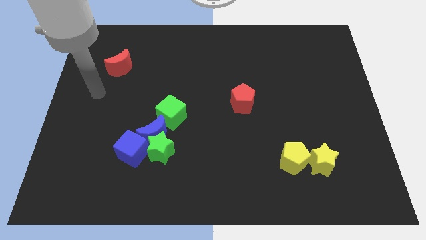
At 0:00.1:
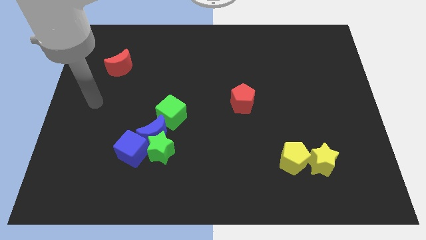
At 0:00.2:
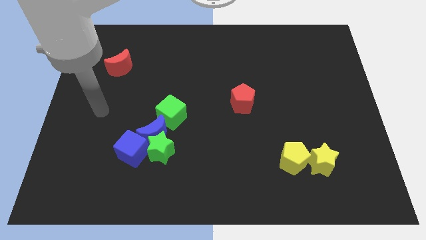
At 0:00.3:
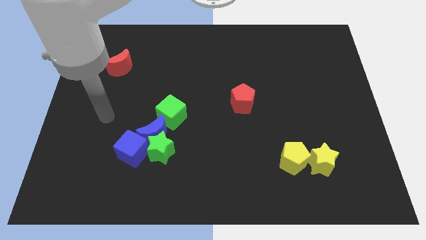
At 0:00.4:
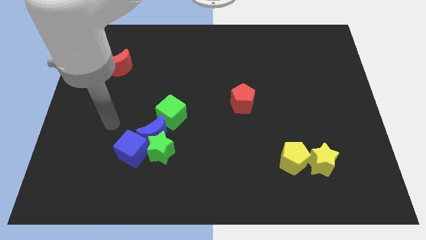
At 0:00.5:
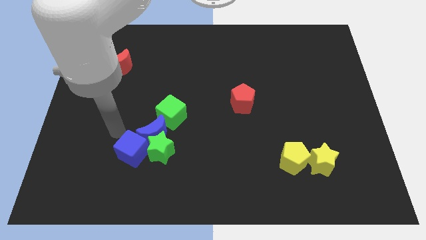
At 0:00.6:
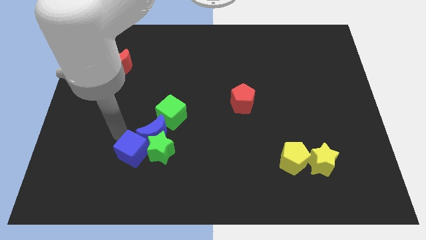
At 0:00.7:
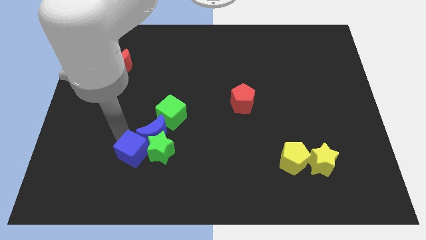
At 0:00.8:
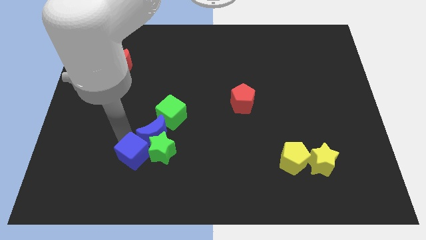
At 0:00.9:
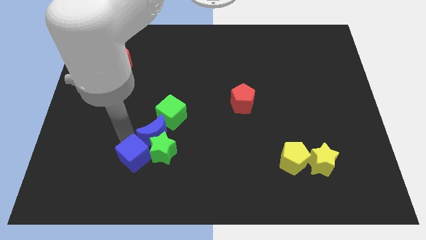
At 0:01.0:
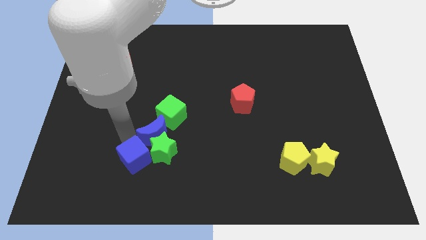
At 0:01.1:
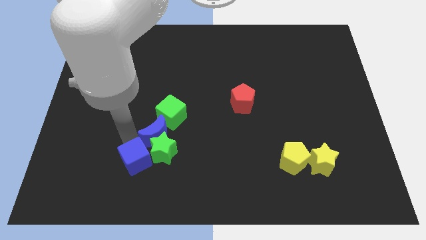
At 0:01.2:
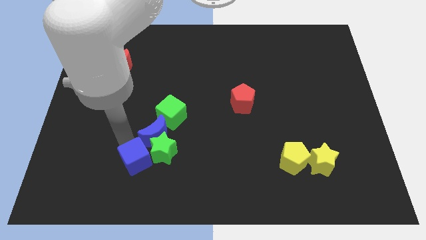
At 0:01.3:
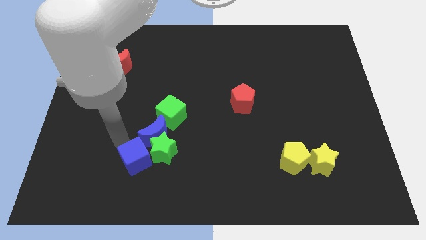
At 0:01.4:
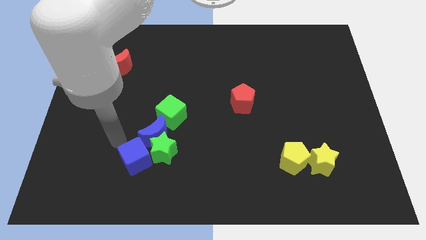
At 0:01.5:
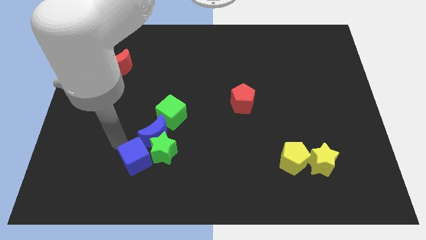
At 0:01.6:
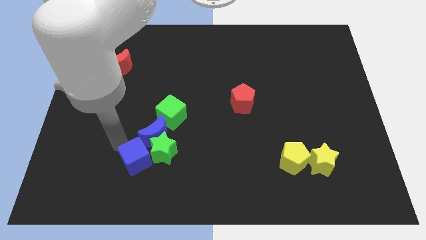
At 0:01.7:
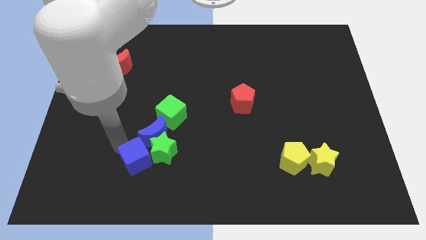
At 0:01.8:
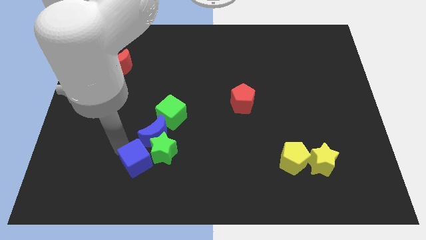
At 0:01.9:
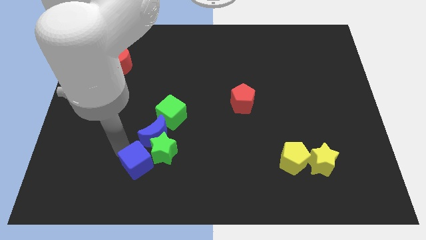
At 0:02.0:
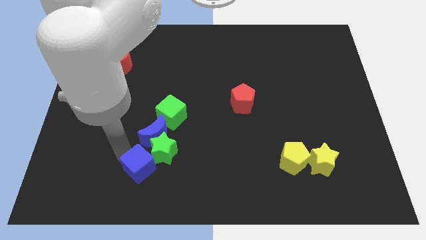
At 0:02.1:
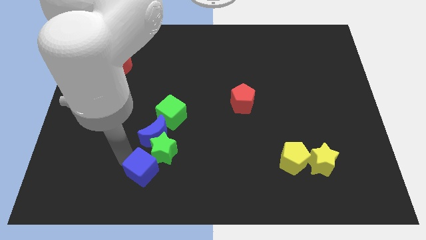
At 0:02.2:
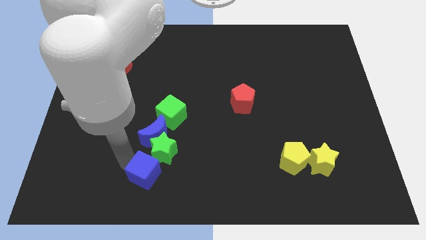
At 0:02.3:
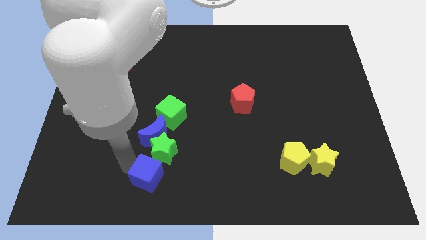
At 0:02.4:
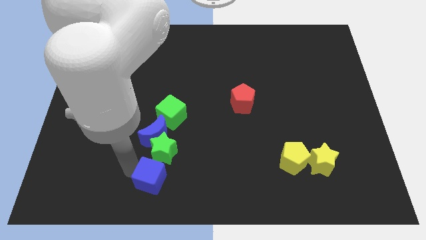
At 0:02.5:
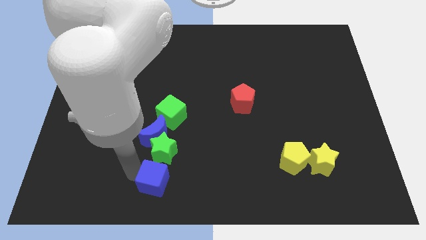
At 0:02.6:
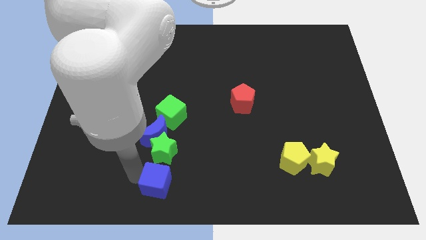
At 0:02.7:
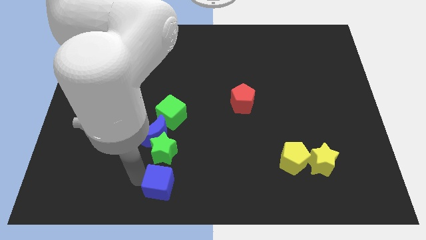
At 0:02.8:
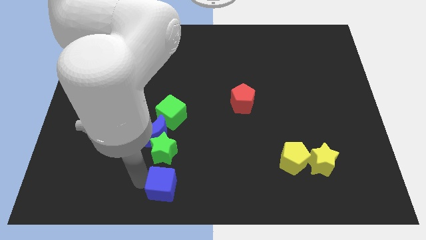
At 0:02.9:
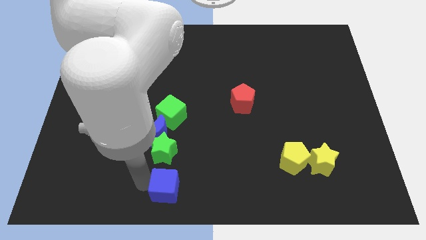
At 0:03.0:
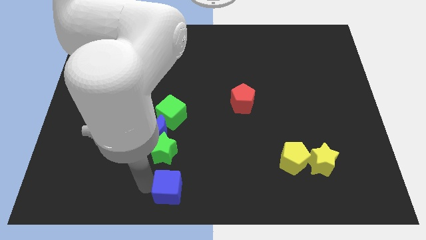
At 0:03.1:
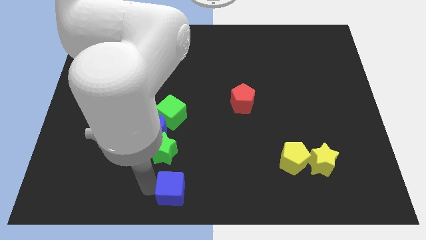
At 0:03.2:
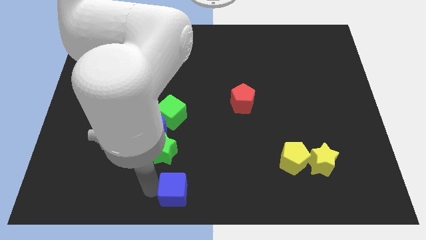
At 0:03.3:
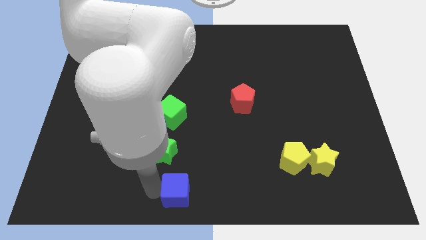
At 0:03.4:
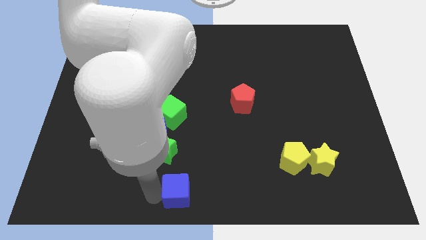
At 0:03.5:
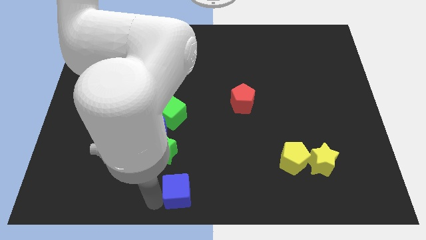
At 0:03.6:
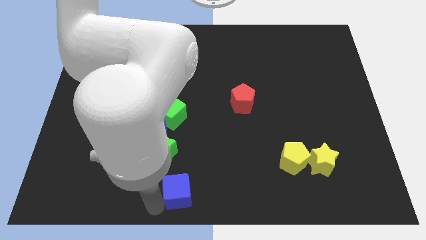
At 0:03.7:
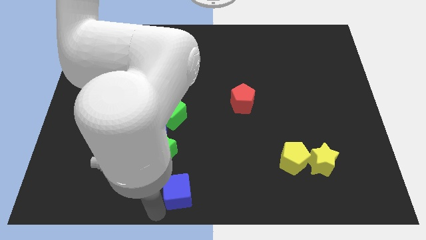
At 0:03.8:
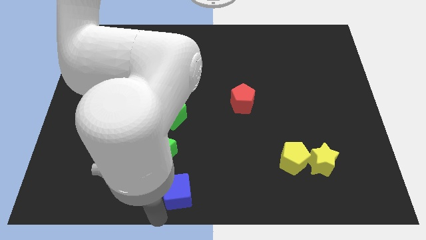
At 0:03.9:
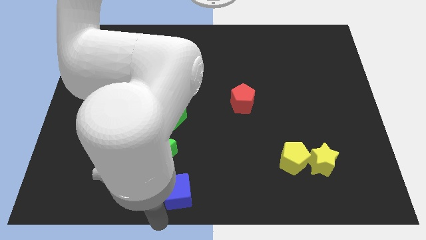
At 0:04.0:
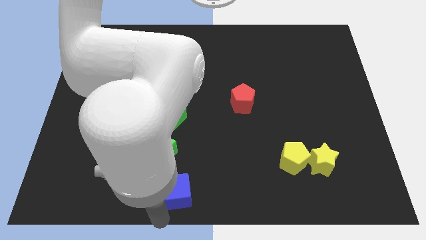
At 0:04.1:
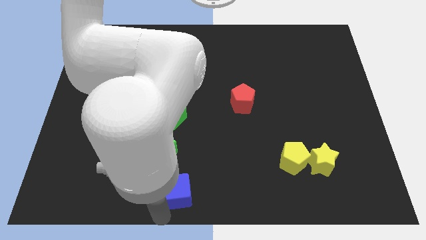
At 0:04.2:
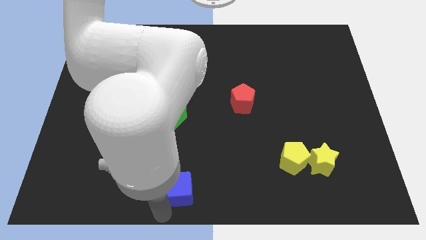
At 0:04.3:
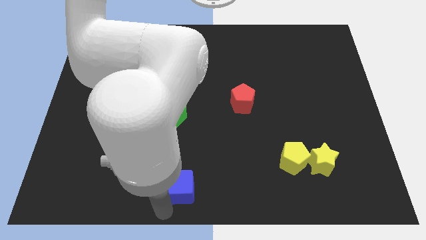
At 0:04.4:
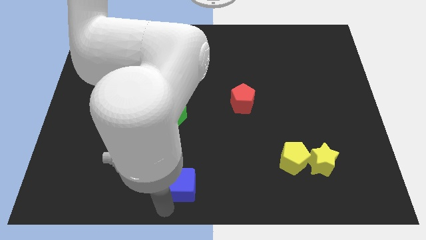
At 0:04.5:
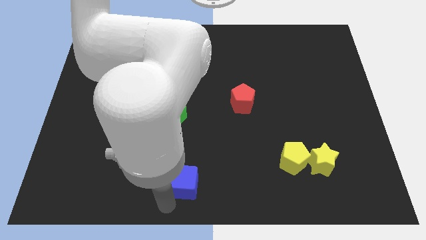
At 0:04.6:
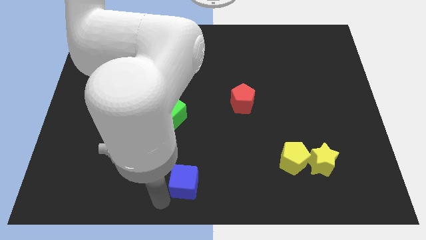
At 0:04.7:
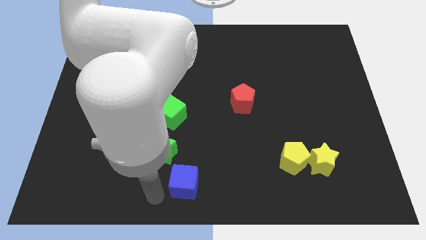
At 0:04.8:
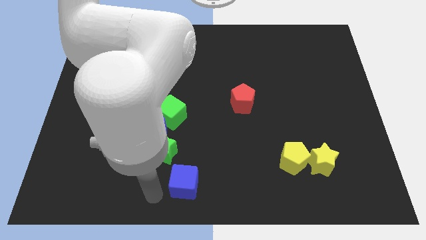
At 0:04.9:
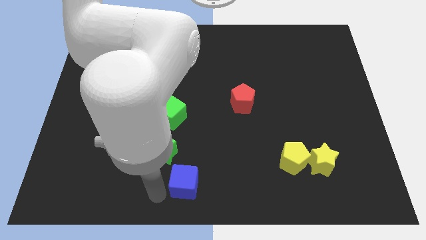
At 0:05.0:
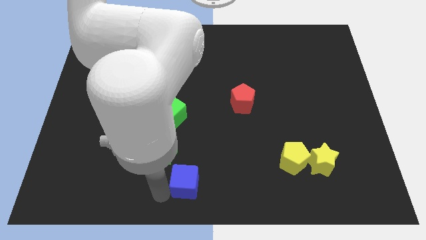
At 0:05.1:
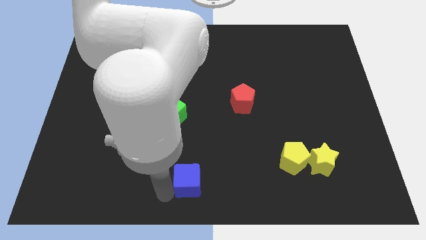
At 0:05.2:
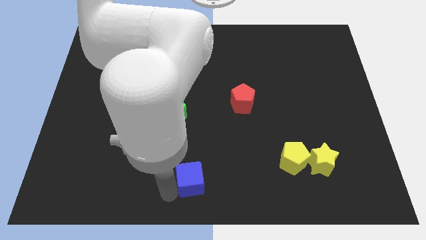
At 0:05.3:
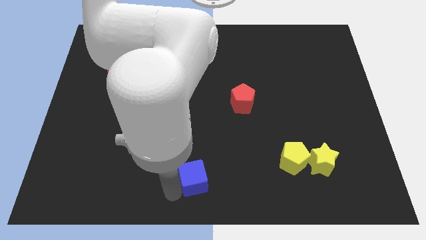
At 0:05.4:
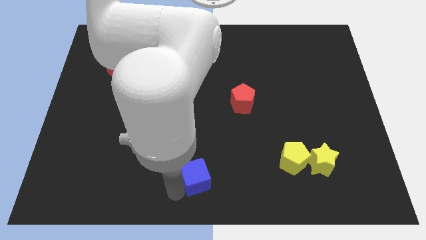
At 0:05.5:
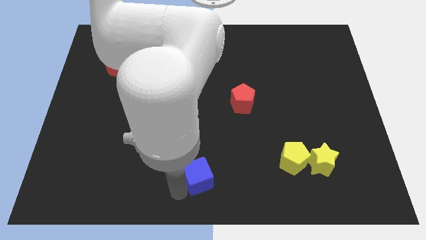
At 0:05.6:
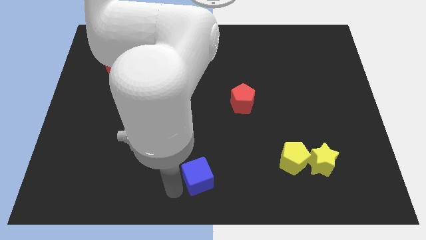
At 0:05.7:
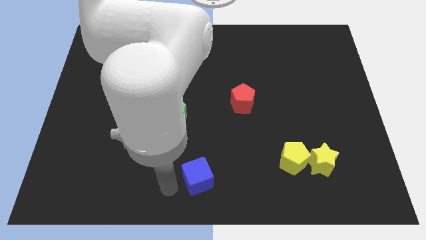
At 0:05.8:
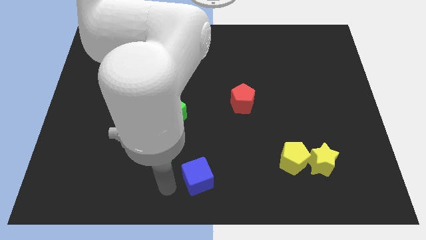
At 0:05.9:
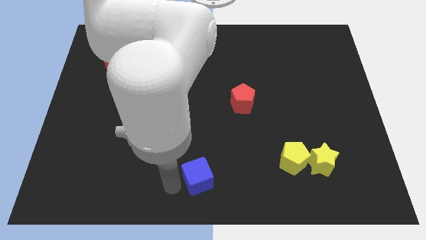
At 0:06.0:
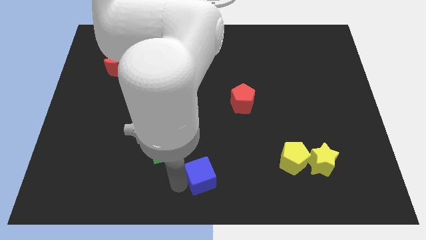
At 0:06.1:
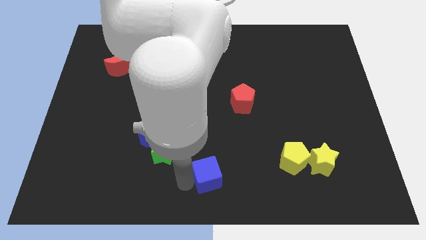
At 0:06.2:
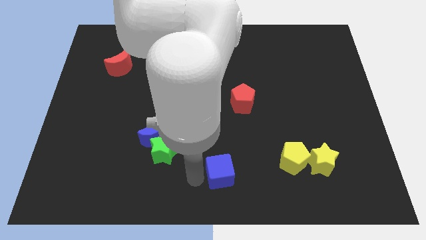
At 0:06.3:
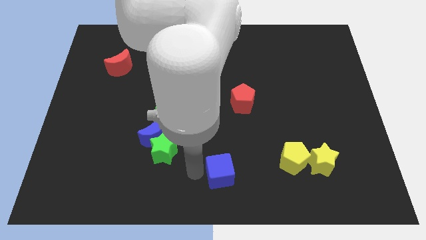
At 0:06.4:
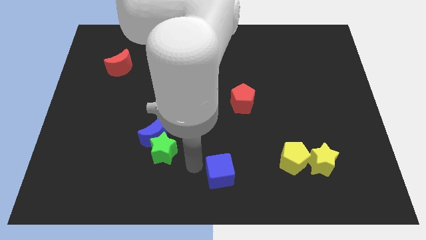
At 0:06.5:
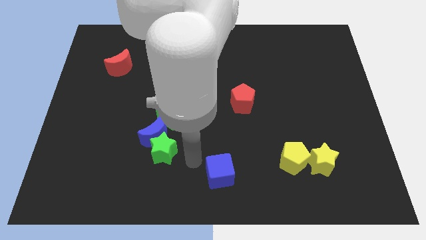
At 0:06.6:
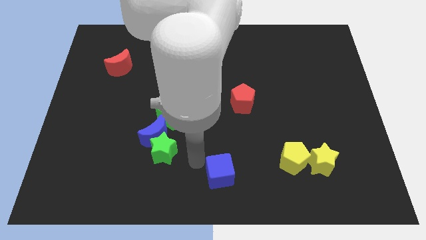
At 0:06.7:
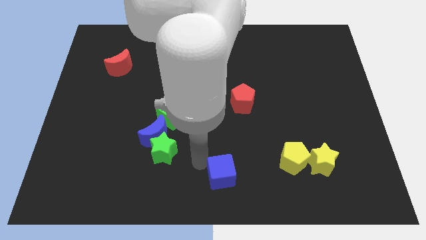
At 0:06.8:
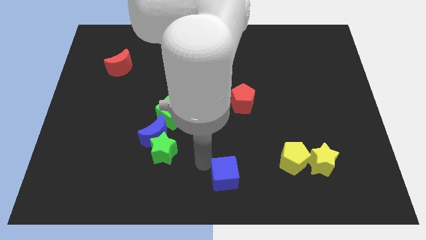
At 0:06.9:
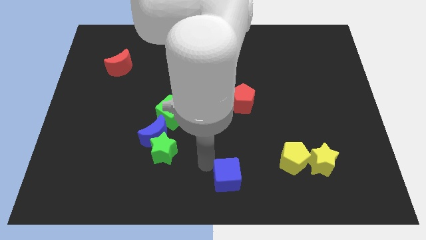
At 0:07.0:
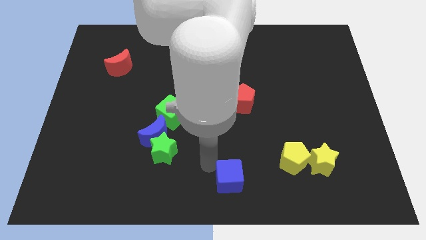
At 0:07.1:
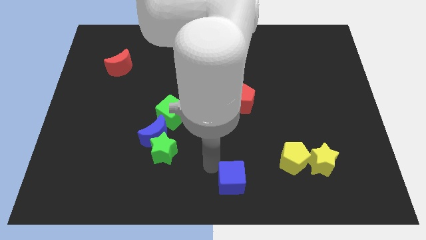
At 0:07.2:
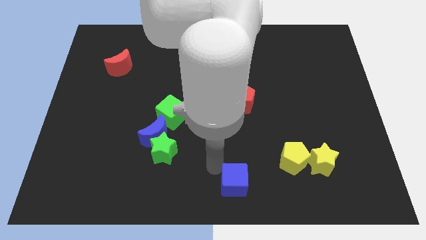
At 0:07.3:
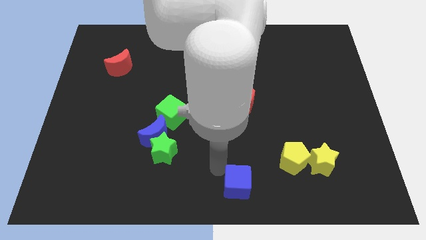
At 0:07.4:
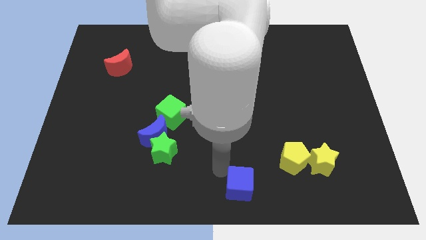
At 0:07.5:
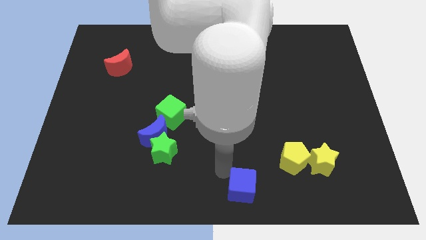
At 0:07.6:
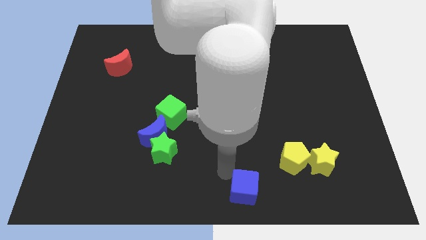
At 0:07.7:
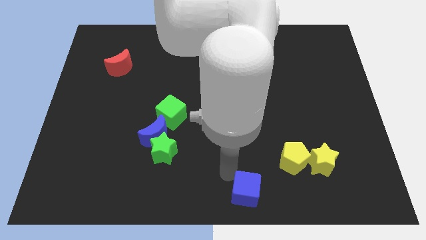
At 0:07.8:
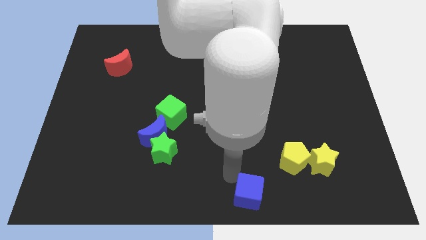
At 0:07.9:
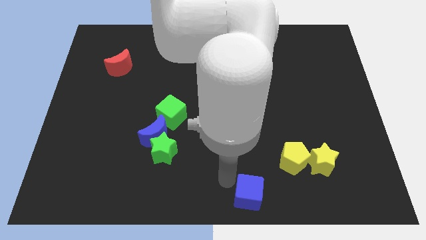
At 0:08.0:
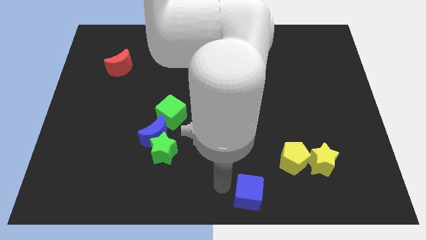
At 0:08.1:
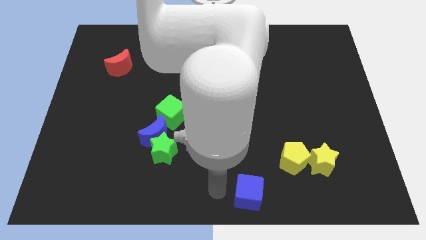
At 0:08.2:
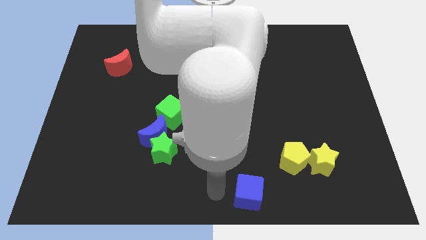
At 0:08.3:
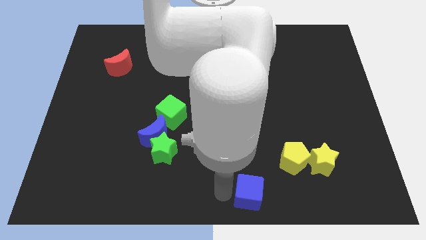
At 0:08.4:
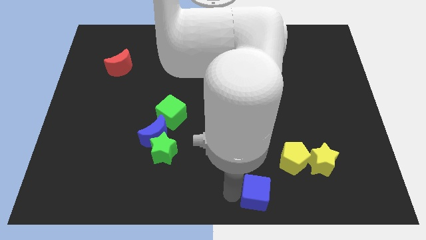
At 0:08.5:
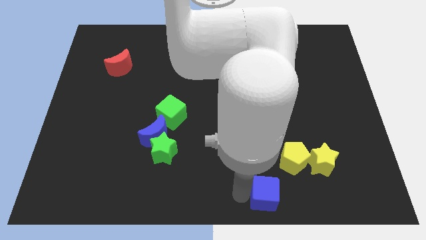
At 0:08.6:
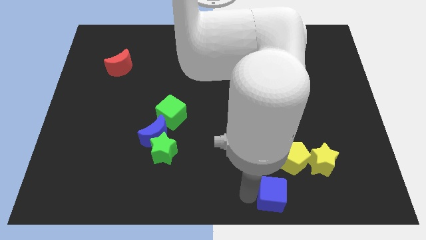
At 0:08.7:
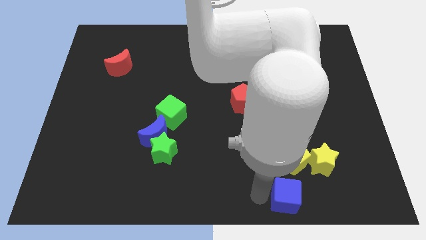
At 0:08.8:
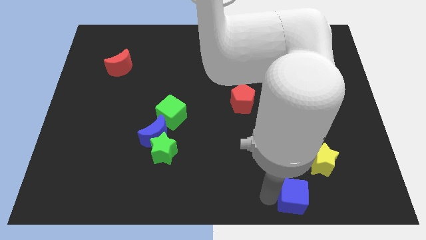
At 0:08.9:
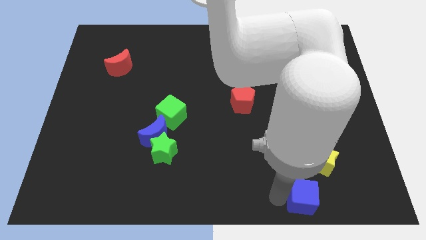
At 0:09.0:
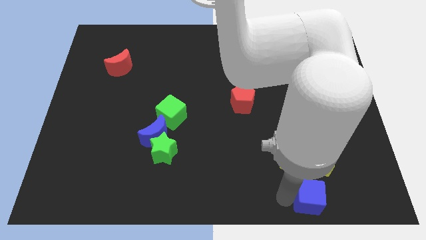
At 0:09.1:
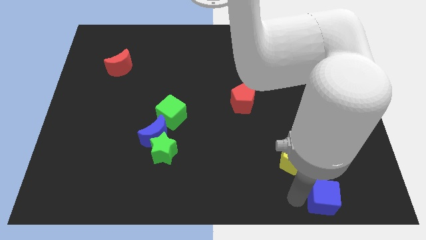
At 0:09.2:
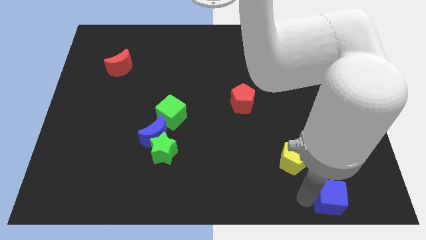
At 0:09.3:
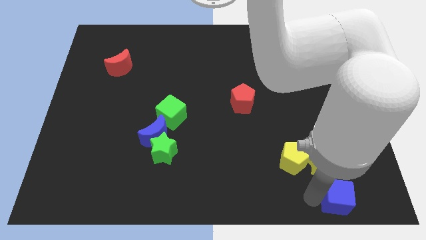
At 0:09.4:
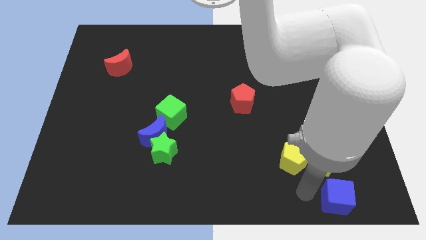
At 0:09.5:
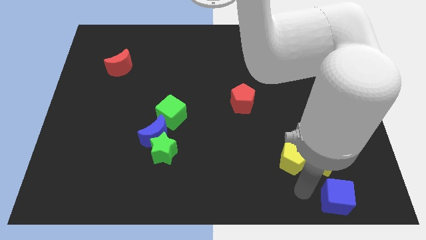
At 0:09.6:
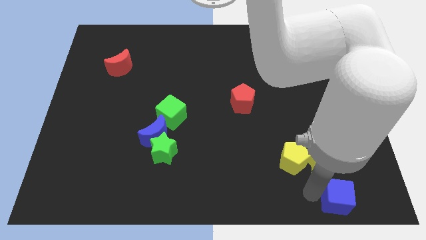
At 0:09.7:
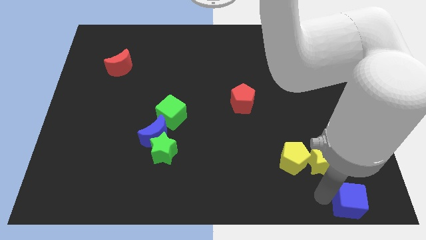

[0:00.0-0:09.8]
move the blue cube to the bottom right
